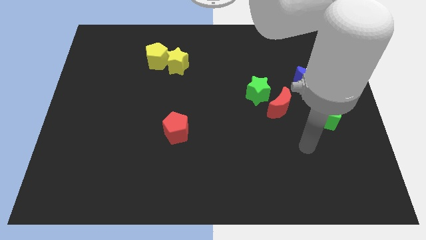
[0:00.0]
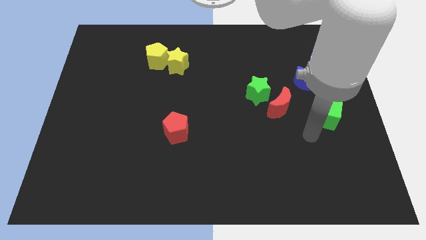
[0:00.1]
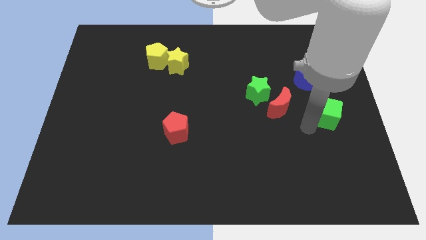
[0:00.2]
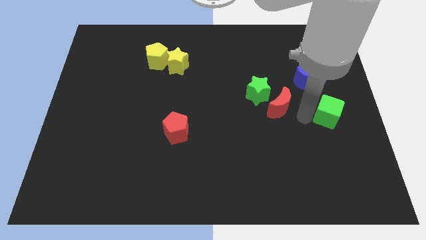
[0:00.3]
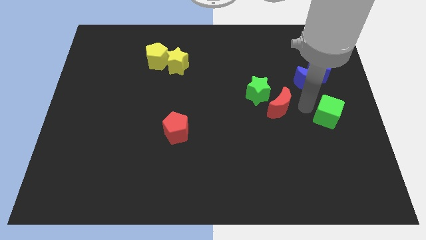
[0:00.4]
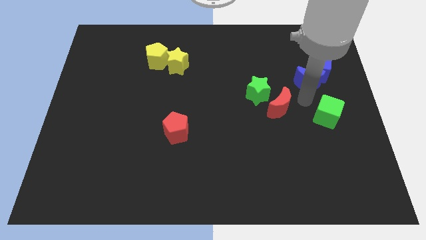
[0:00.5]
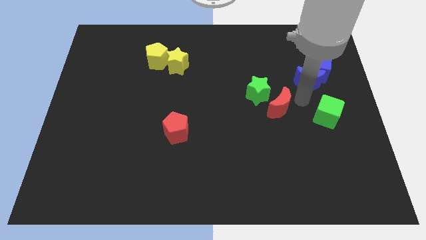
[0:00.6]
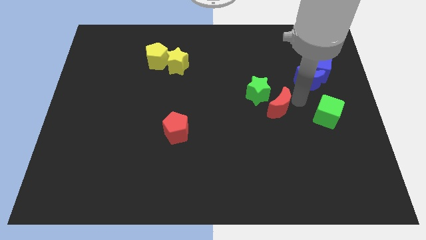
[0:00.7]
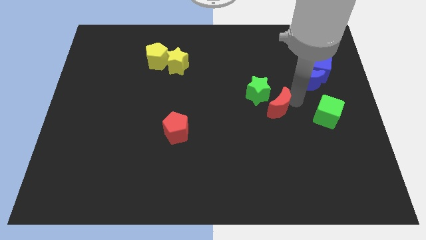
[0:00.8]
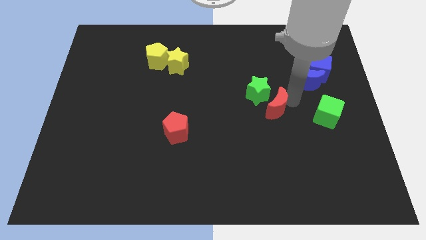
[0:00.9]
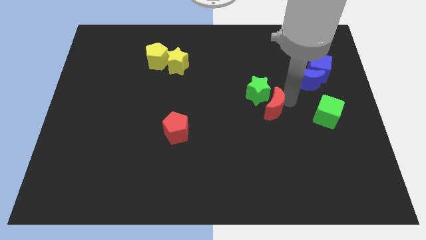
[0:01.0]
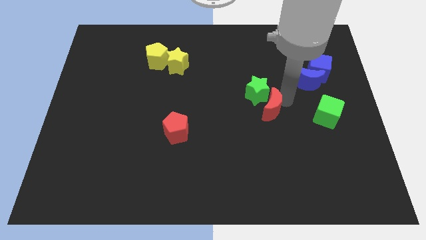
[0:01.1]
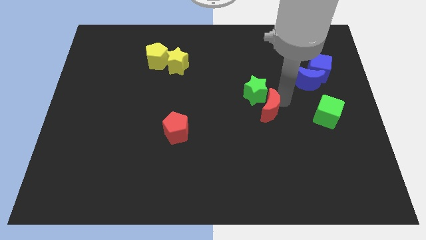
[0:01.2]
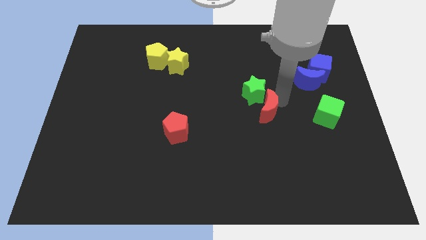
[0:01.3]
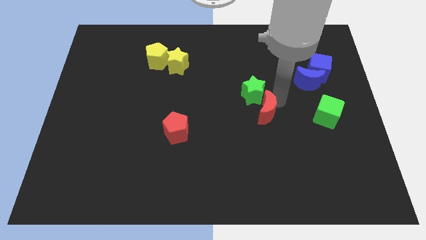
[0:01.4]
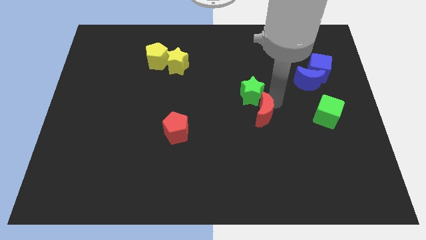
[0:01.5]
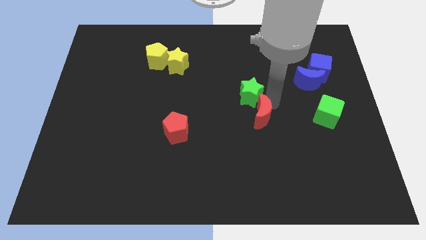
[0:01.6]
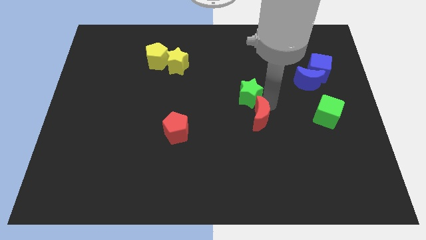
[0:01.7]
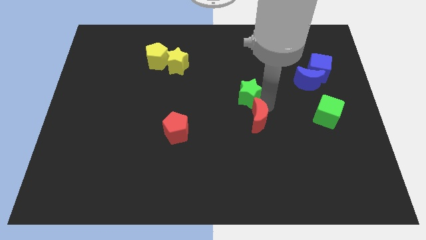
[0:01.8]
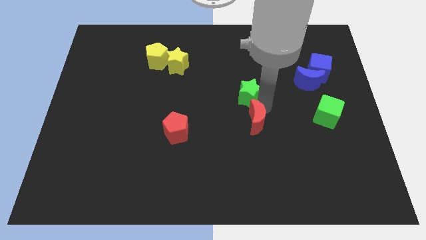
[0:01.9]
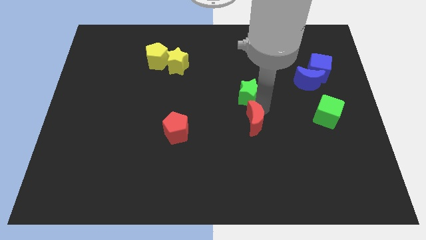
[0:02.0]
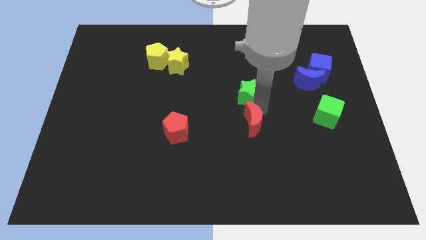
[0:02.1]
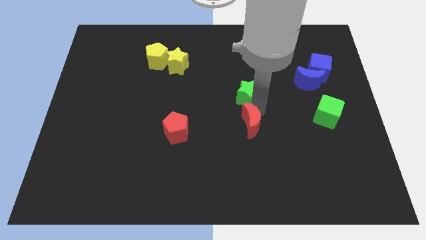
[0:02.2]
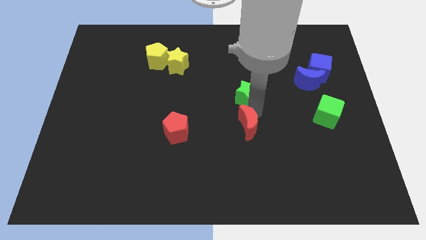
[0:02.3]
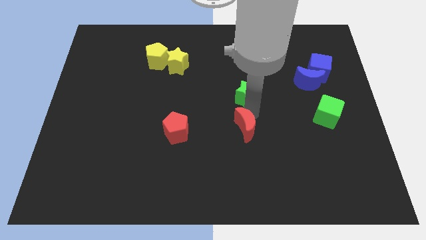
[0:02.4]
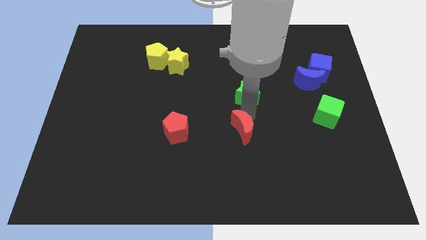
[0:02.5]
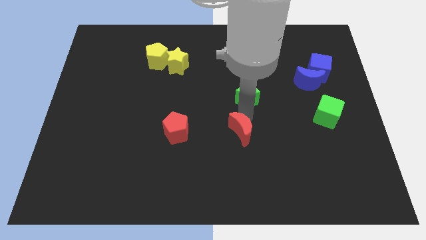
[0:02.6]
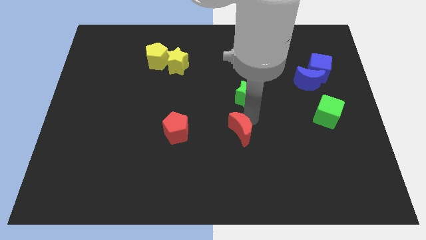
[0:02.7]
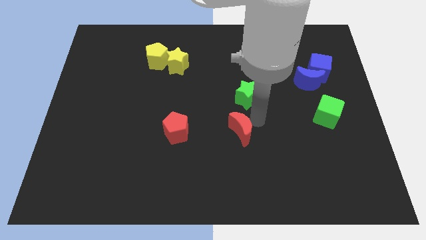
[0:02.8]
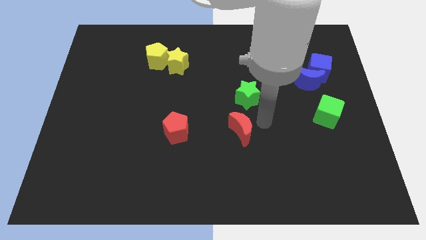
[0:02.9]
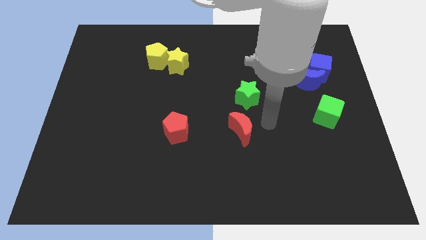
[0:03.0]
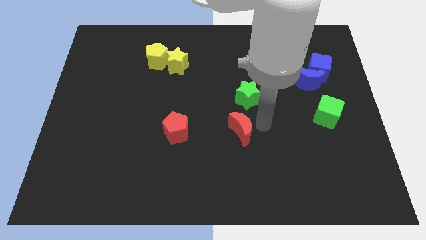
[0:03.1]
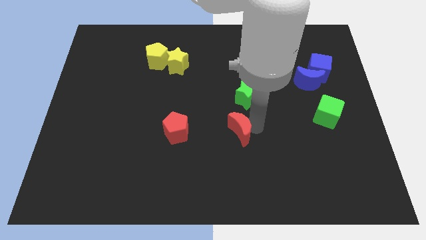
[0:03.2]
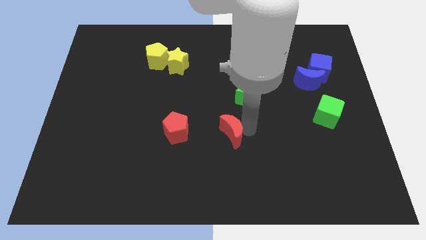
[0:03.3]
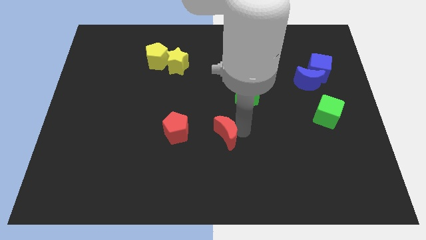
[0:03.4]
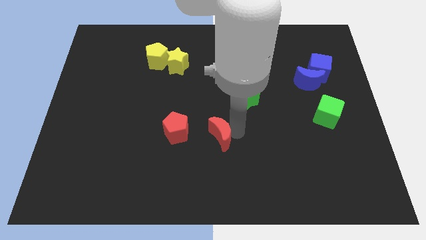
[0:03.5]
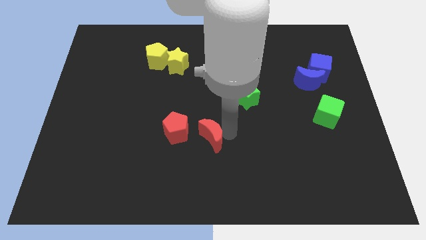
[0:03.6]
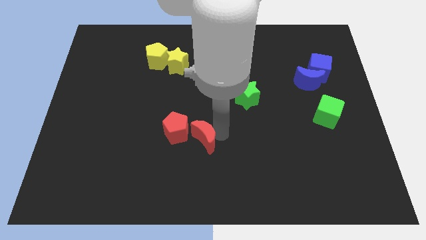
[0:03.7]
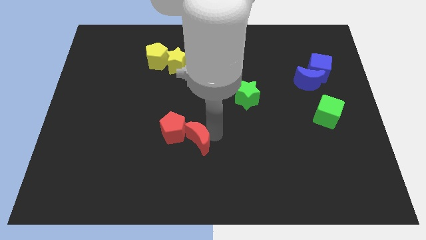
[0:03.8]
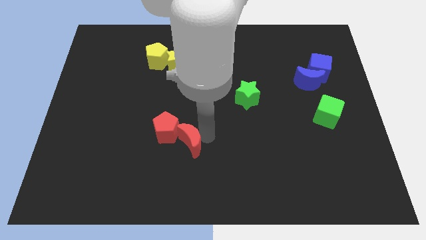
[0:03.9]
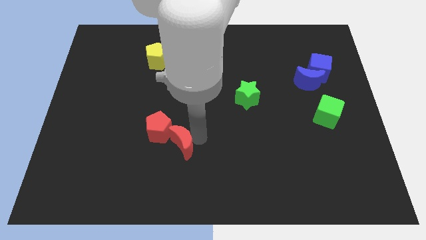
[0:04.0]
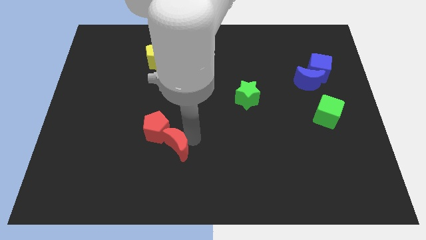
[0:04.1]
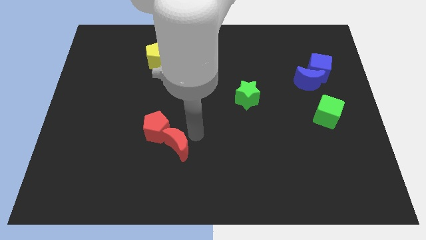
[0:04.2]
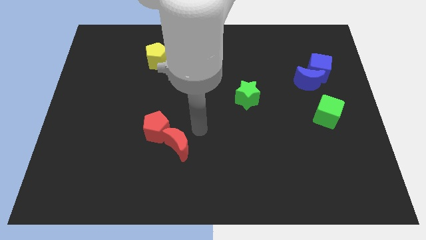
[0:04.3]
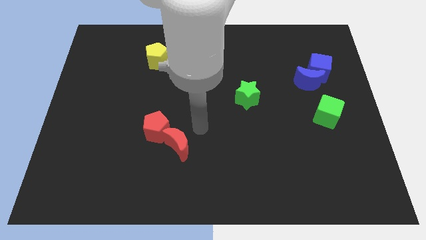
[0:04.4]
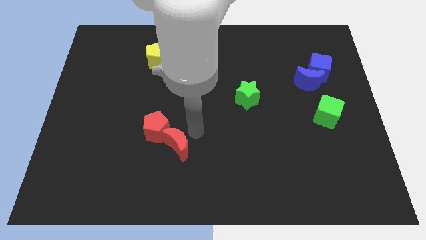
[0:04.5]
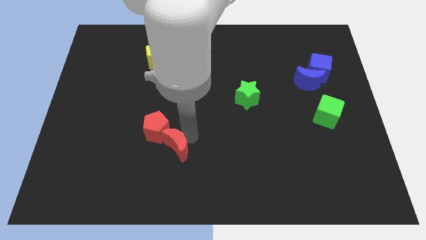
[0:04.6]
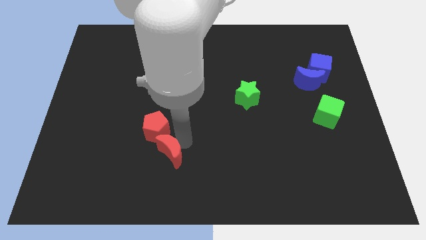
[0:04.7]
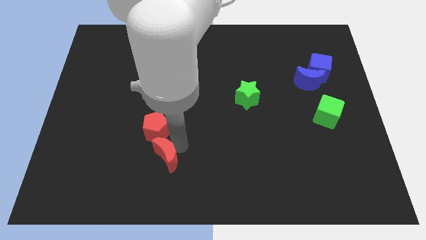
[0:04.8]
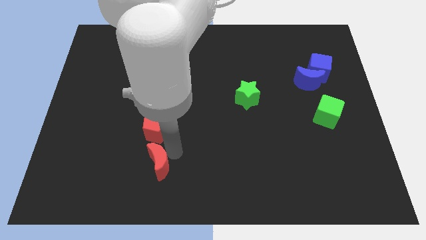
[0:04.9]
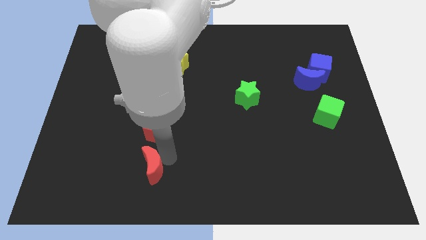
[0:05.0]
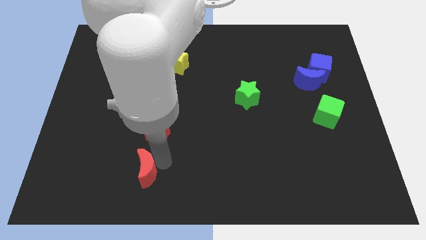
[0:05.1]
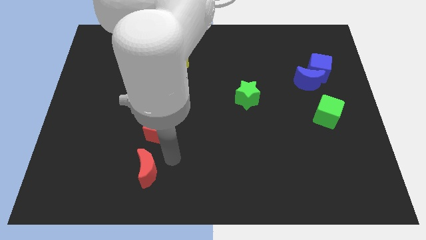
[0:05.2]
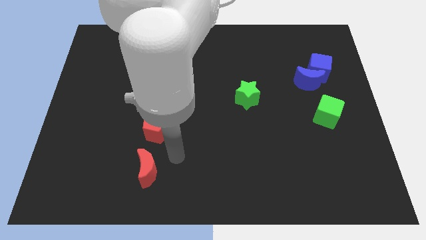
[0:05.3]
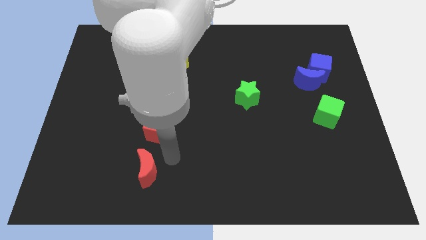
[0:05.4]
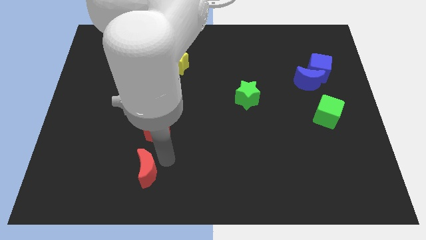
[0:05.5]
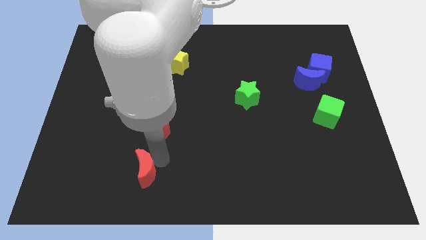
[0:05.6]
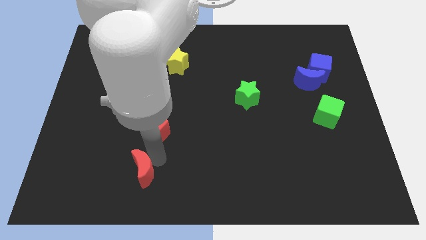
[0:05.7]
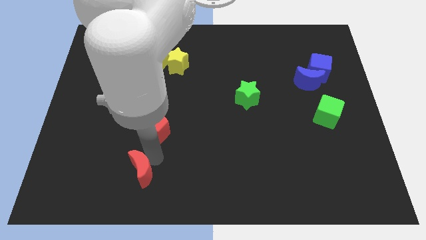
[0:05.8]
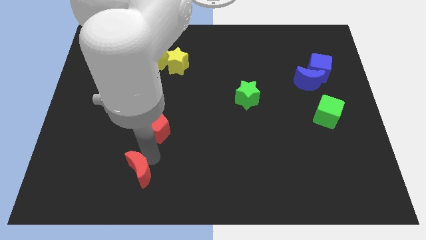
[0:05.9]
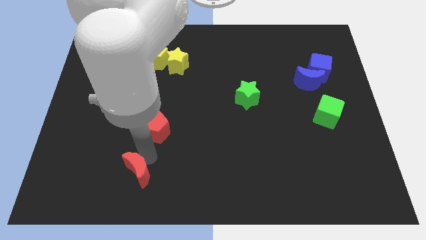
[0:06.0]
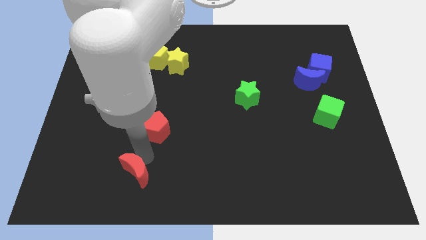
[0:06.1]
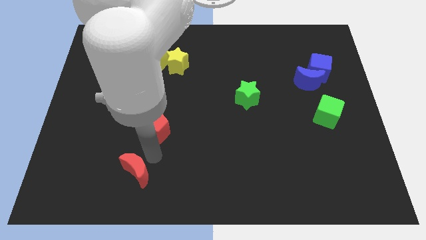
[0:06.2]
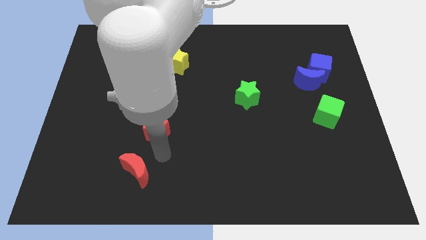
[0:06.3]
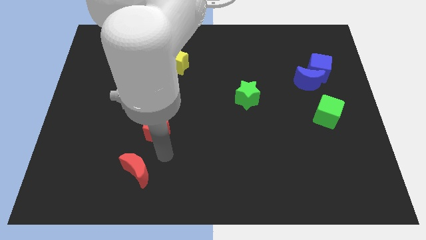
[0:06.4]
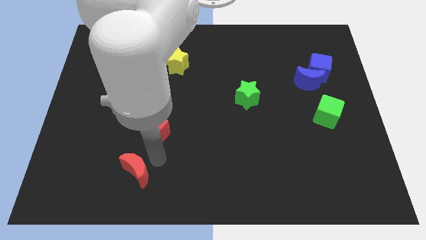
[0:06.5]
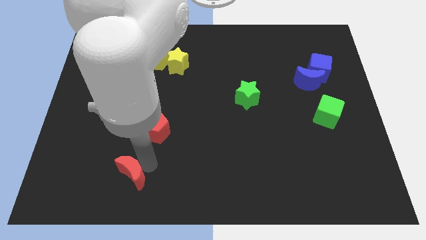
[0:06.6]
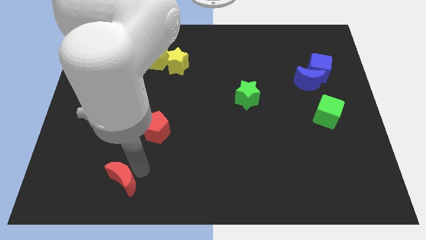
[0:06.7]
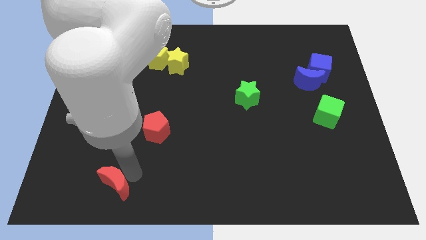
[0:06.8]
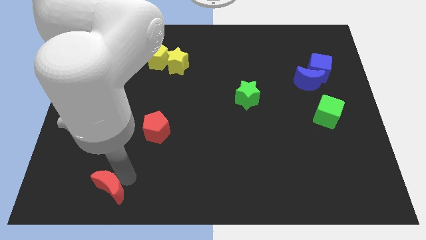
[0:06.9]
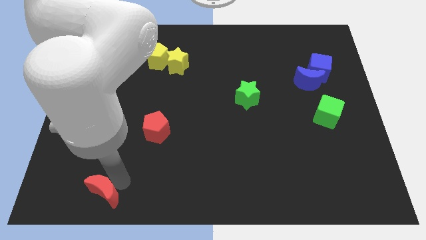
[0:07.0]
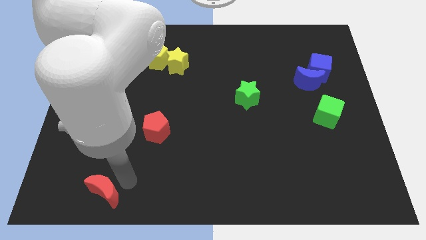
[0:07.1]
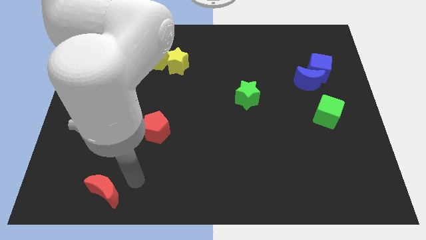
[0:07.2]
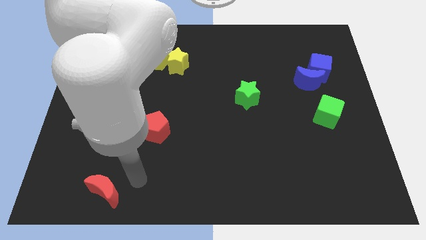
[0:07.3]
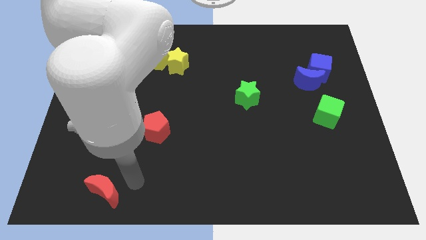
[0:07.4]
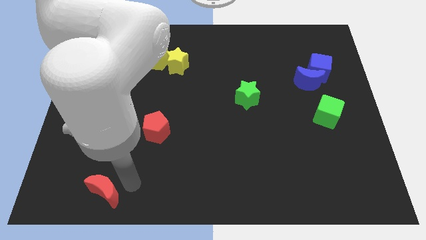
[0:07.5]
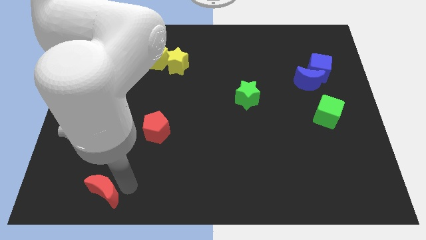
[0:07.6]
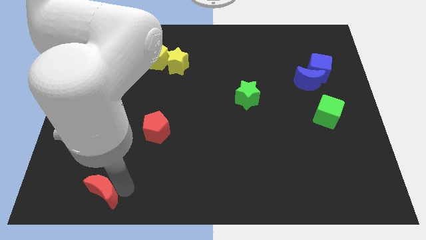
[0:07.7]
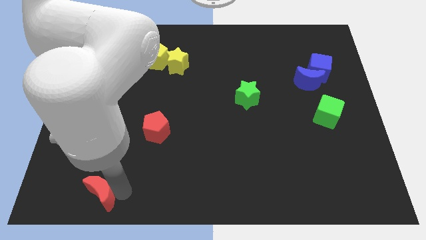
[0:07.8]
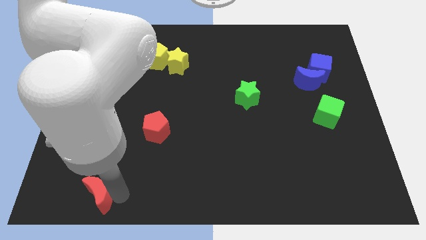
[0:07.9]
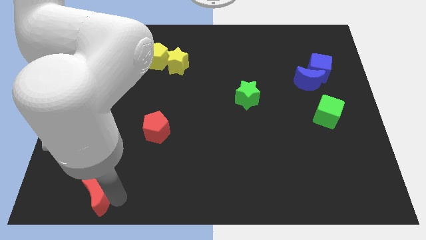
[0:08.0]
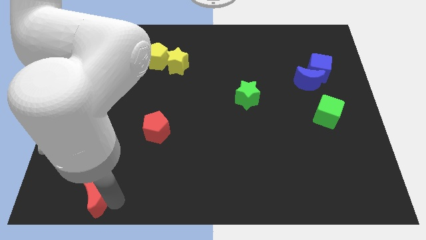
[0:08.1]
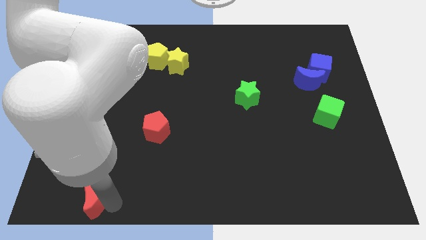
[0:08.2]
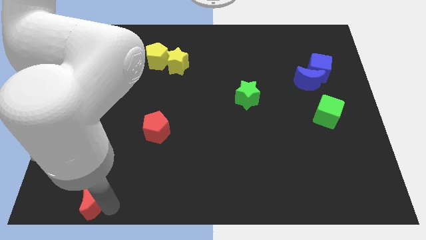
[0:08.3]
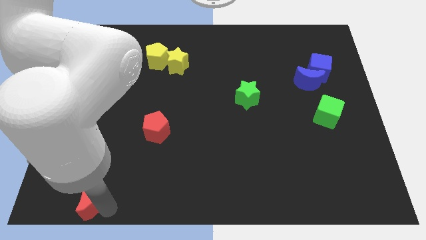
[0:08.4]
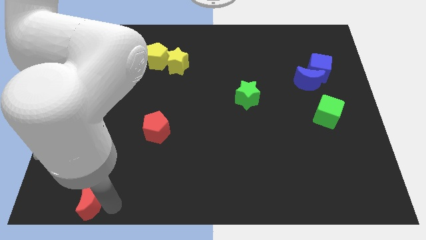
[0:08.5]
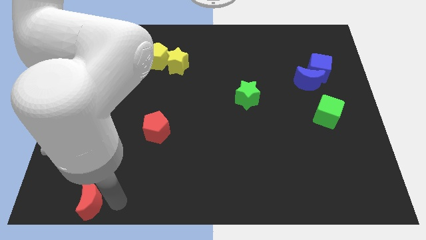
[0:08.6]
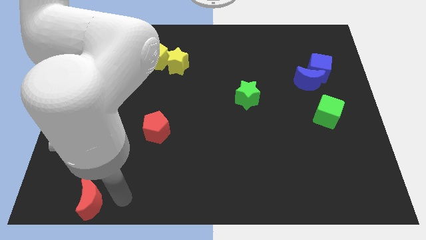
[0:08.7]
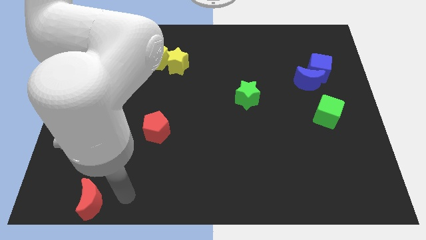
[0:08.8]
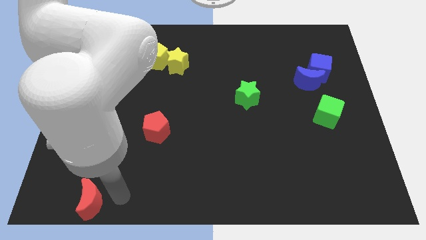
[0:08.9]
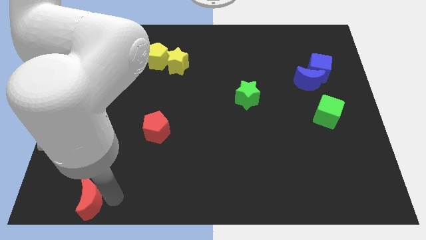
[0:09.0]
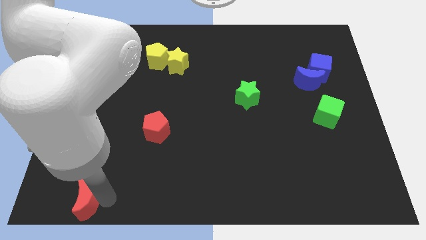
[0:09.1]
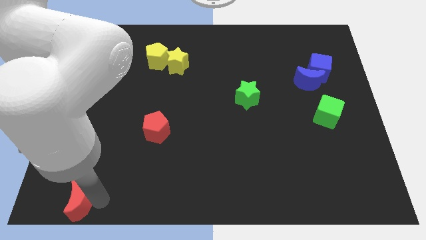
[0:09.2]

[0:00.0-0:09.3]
slide the red moon to the bottom left
